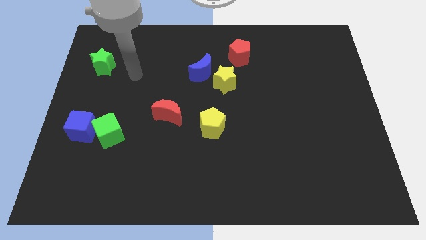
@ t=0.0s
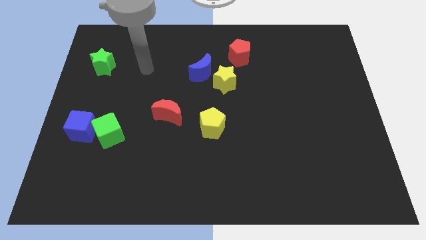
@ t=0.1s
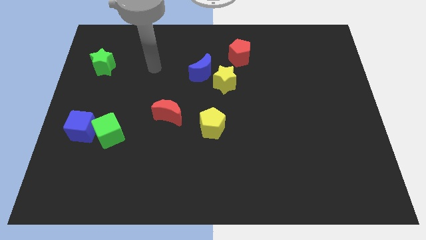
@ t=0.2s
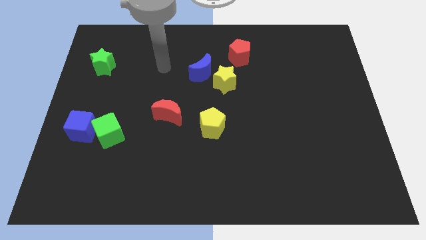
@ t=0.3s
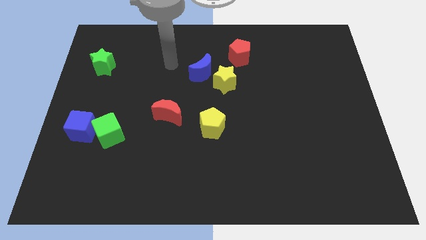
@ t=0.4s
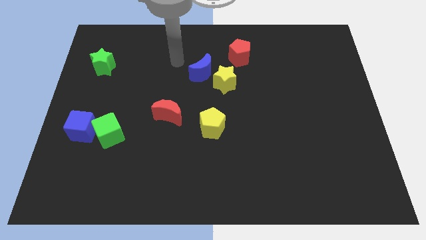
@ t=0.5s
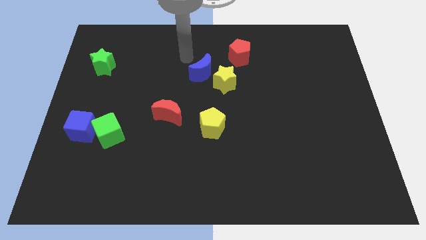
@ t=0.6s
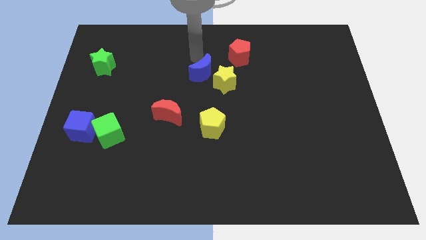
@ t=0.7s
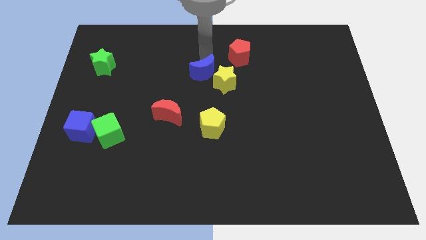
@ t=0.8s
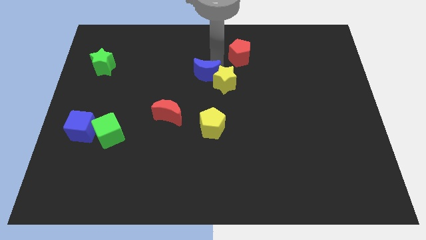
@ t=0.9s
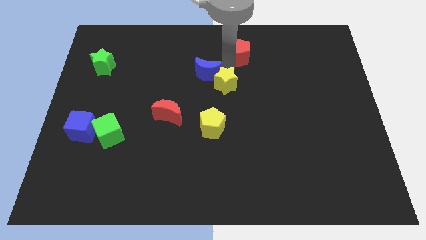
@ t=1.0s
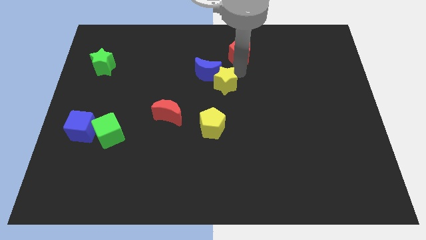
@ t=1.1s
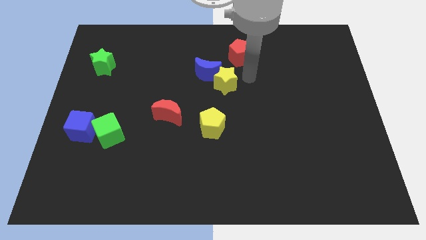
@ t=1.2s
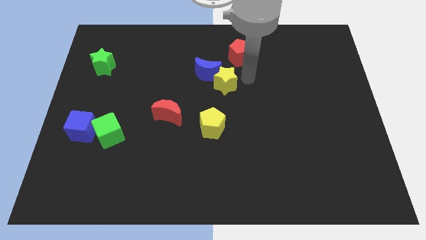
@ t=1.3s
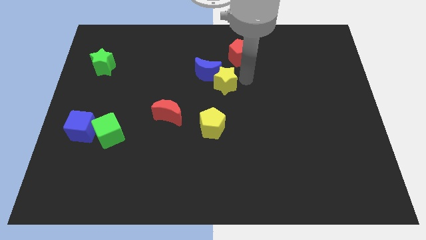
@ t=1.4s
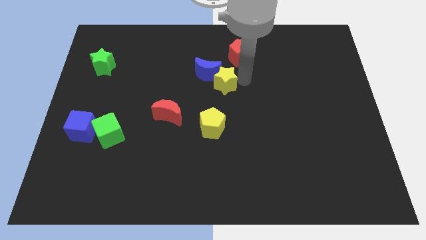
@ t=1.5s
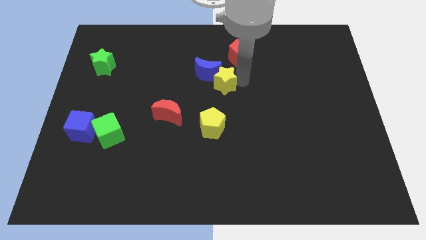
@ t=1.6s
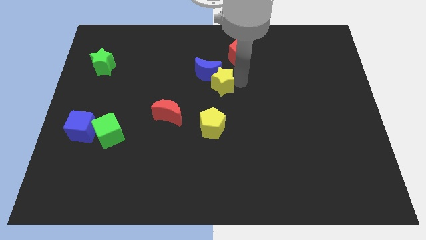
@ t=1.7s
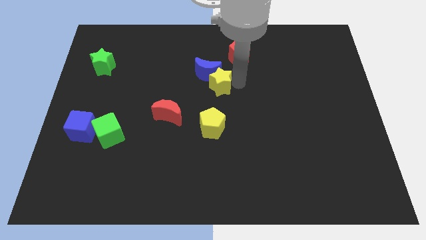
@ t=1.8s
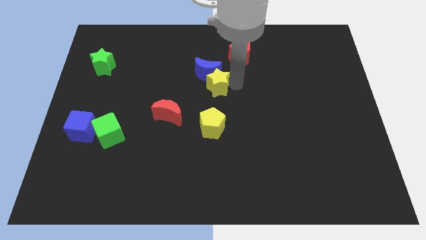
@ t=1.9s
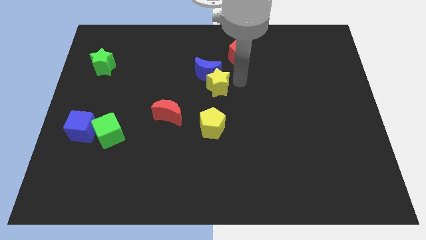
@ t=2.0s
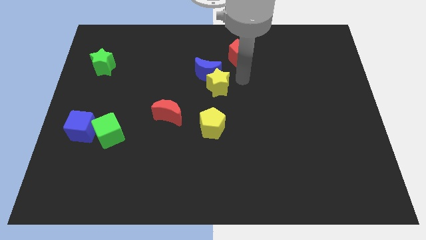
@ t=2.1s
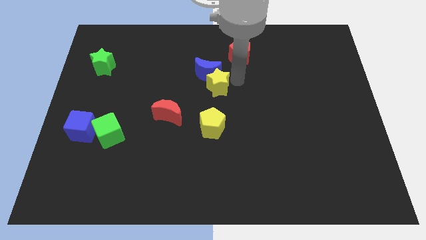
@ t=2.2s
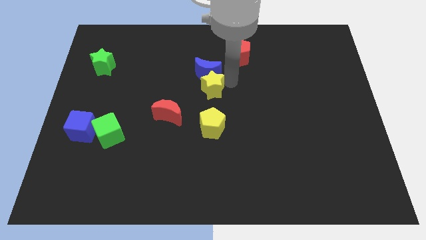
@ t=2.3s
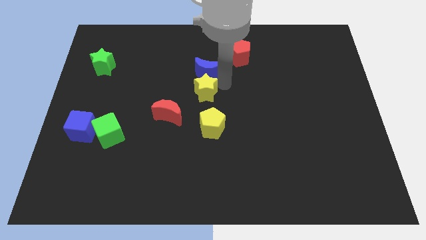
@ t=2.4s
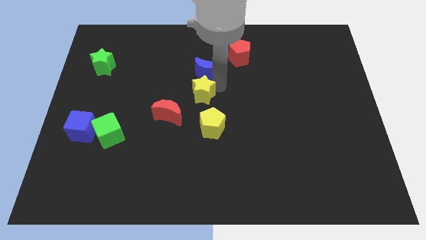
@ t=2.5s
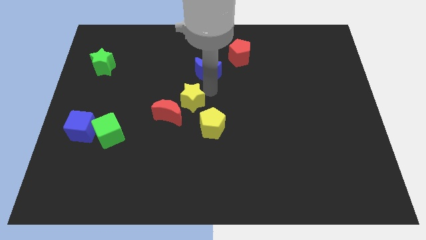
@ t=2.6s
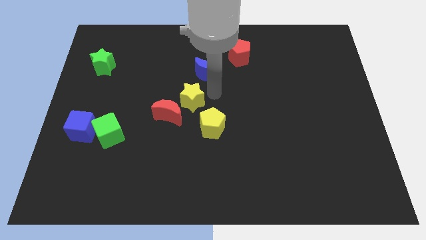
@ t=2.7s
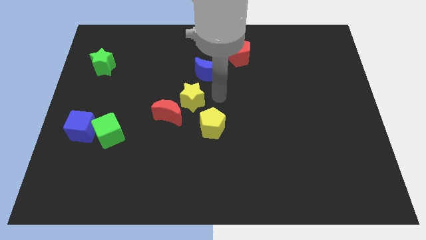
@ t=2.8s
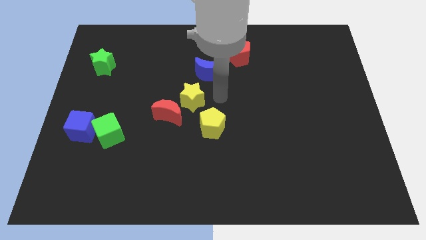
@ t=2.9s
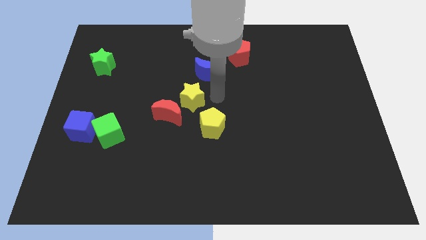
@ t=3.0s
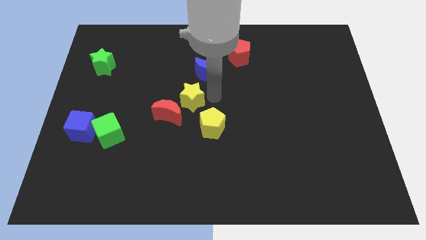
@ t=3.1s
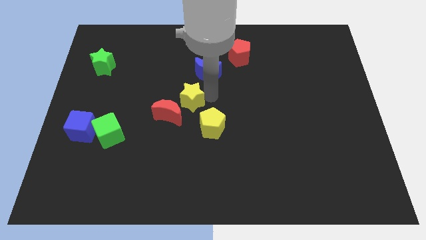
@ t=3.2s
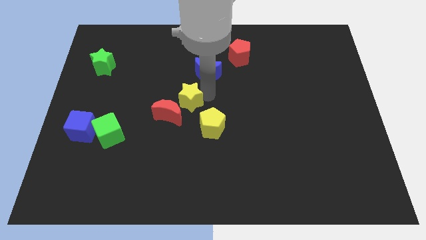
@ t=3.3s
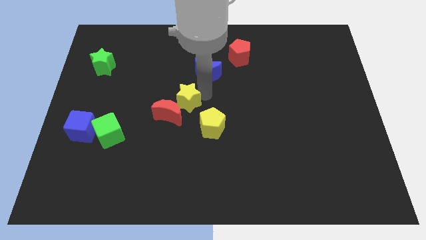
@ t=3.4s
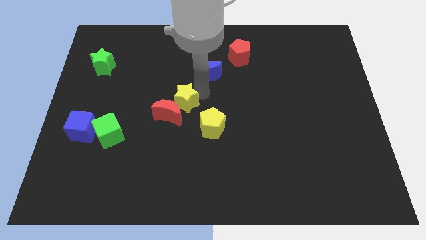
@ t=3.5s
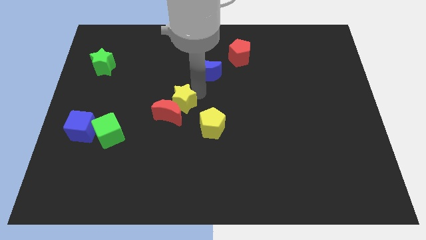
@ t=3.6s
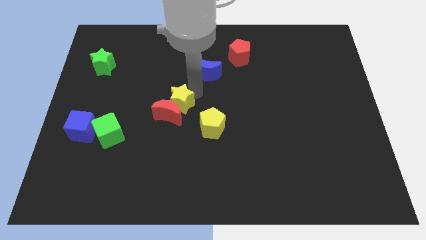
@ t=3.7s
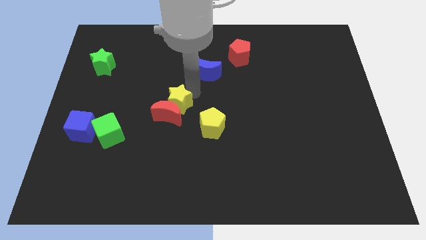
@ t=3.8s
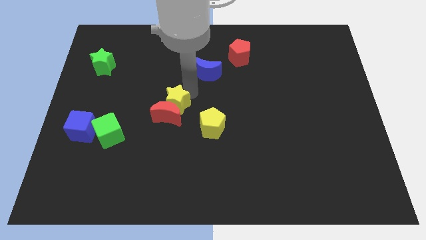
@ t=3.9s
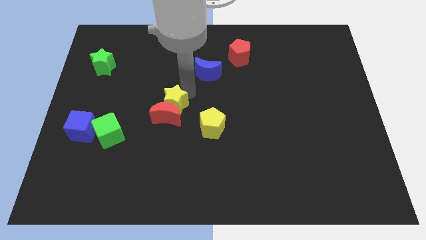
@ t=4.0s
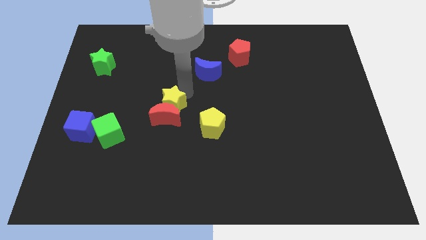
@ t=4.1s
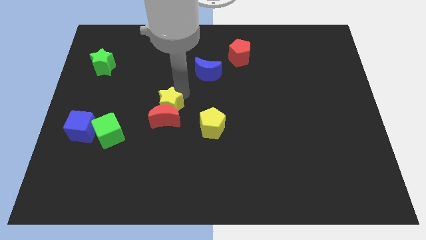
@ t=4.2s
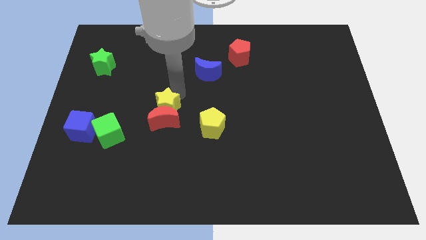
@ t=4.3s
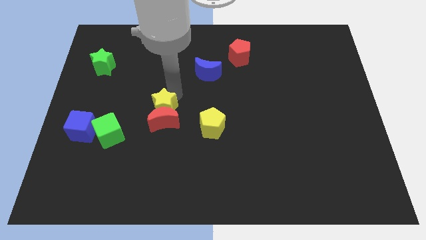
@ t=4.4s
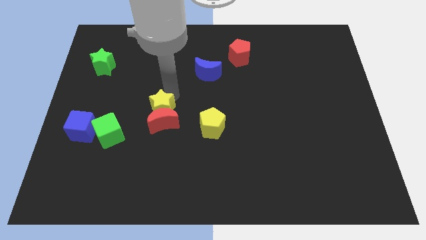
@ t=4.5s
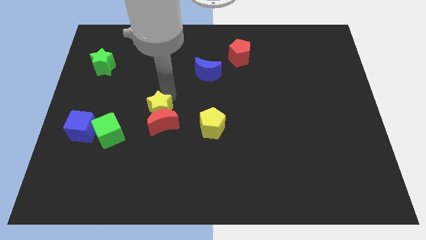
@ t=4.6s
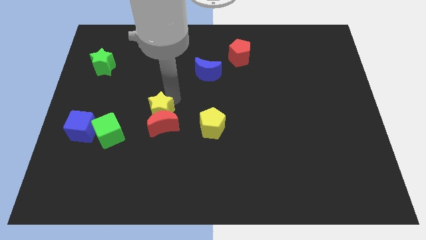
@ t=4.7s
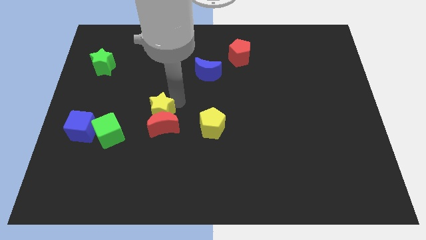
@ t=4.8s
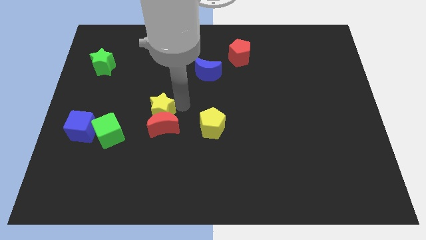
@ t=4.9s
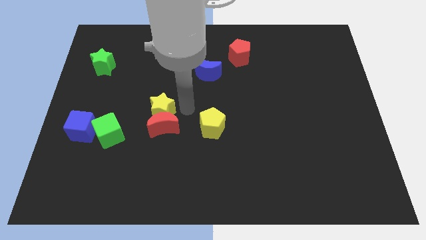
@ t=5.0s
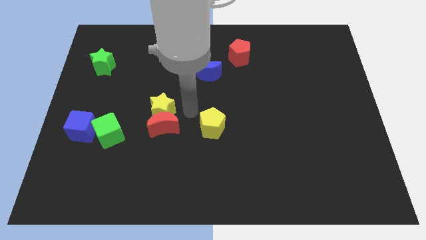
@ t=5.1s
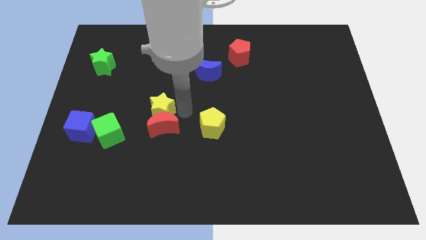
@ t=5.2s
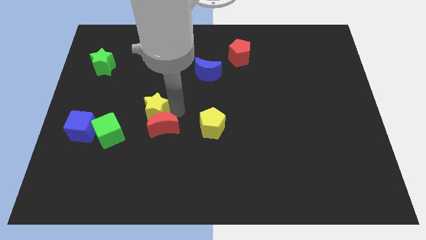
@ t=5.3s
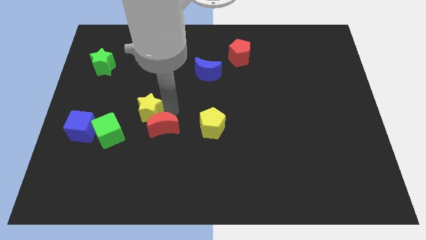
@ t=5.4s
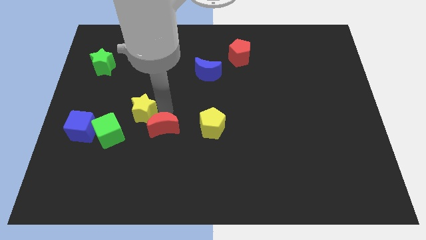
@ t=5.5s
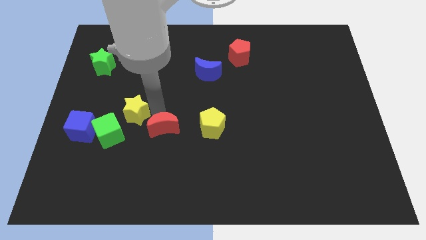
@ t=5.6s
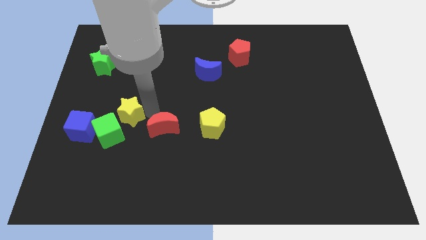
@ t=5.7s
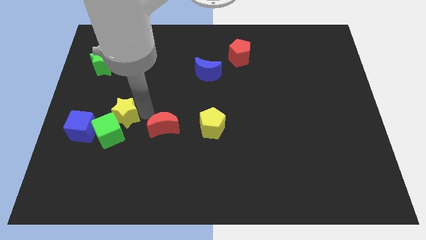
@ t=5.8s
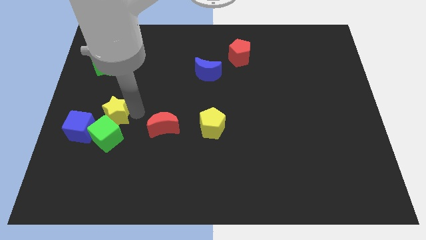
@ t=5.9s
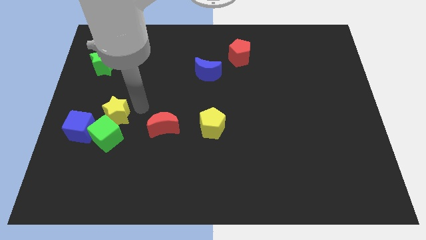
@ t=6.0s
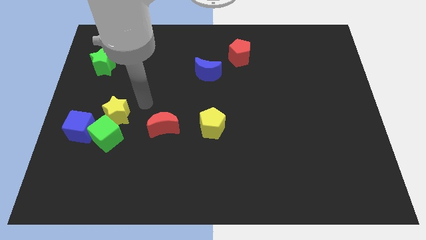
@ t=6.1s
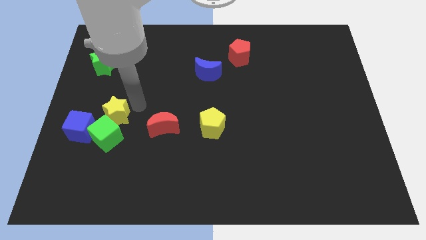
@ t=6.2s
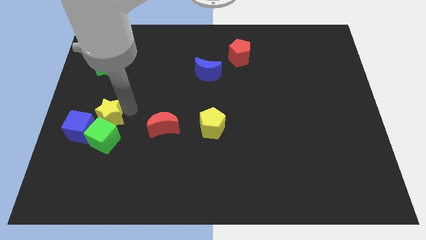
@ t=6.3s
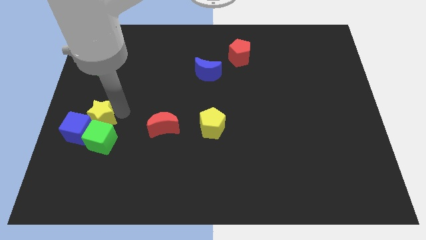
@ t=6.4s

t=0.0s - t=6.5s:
move the yellow star next to the blue cube
